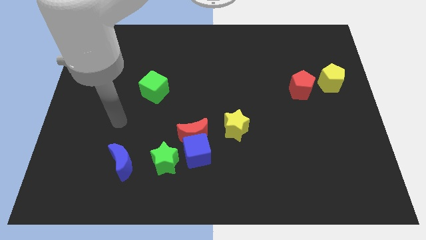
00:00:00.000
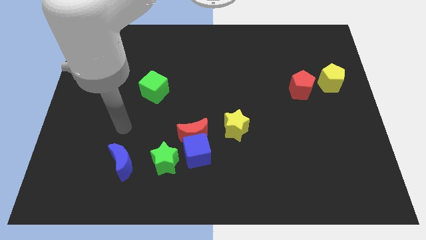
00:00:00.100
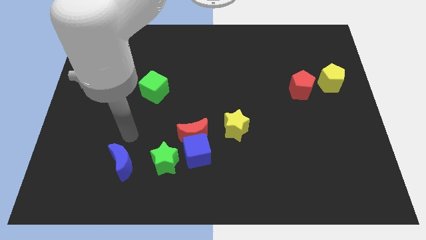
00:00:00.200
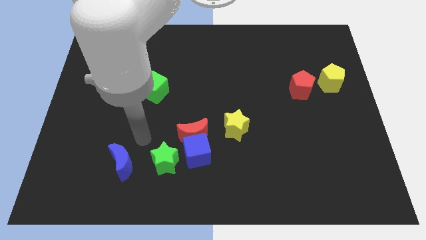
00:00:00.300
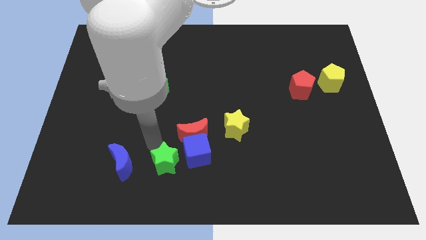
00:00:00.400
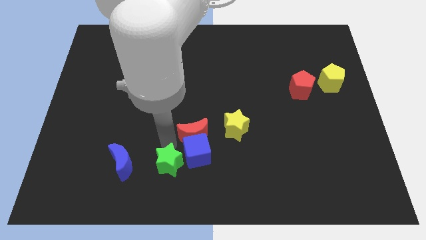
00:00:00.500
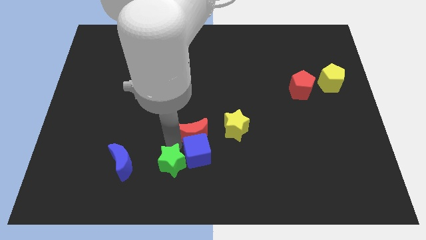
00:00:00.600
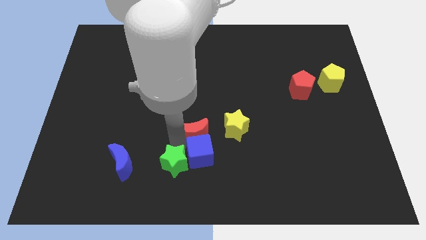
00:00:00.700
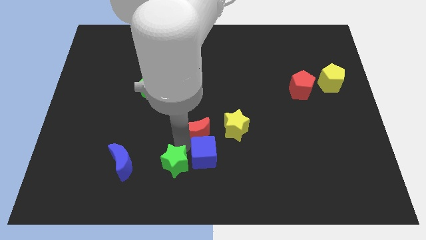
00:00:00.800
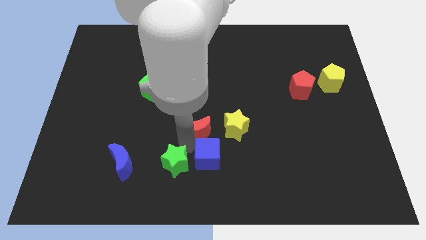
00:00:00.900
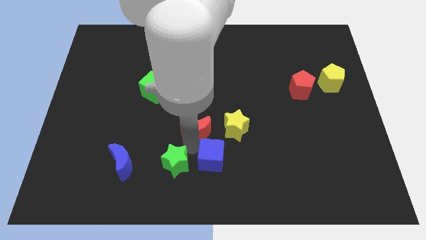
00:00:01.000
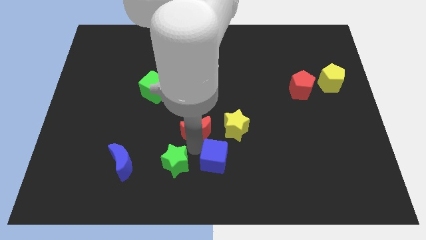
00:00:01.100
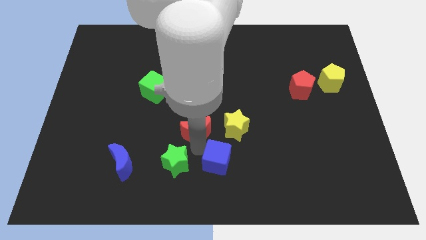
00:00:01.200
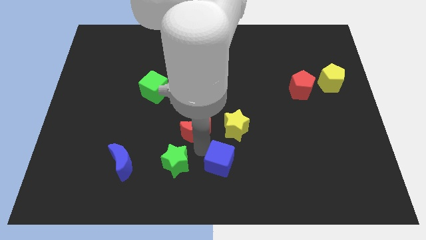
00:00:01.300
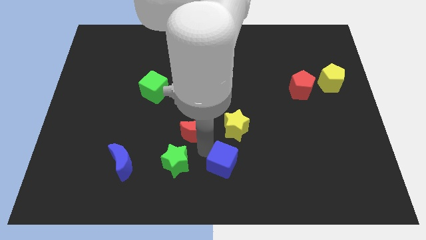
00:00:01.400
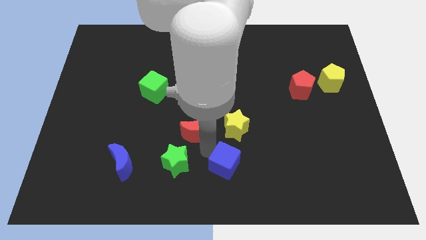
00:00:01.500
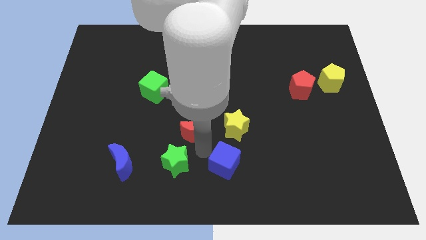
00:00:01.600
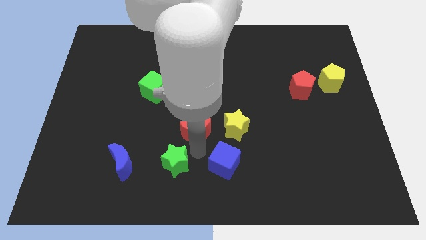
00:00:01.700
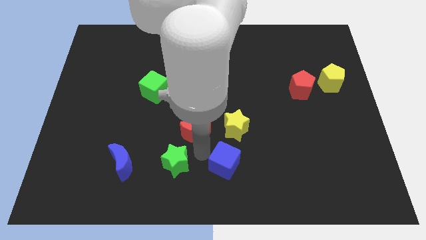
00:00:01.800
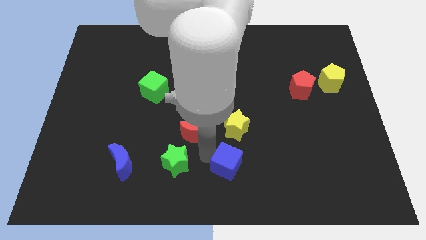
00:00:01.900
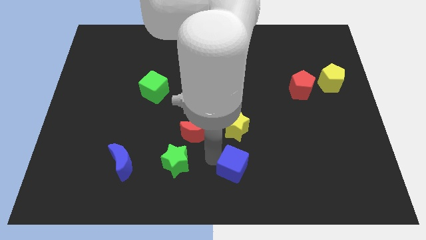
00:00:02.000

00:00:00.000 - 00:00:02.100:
pull the blue cube apart from the red moon and green star

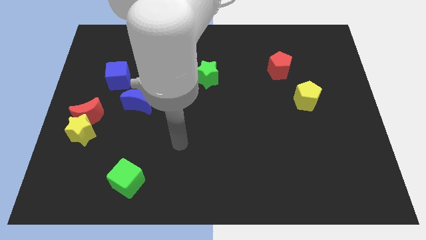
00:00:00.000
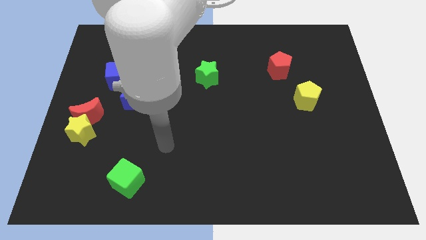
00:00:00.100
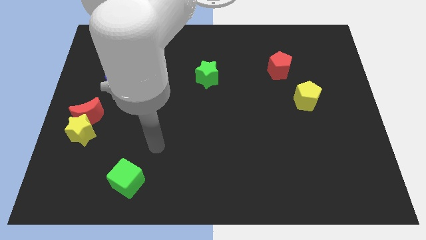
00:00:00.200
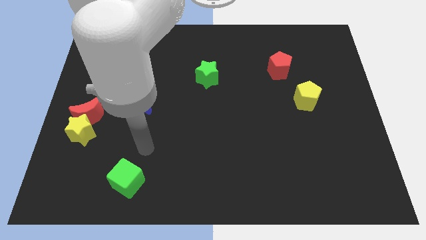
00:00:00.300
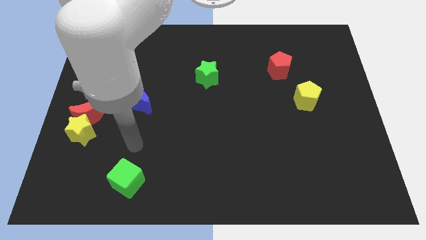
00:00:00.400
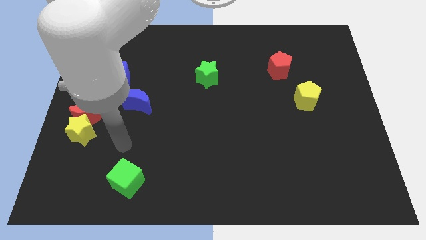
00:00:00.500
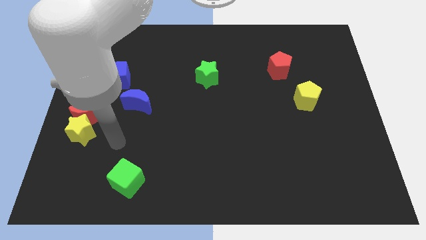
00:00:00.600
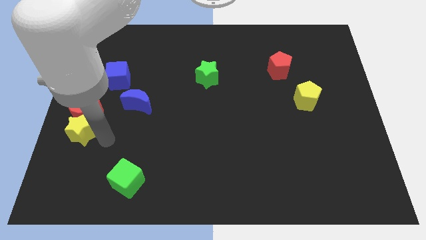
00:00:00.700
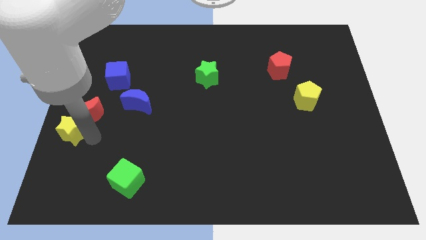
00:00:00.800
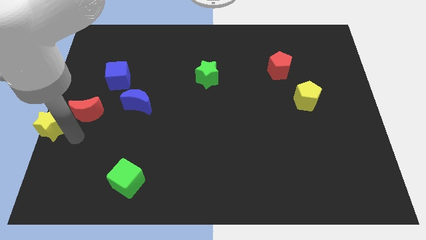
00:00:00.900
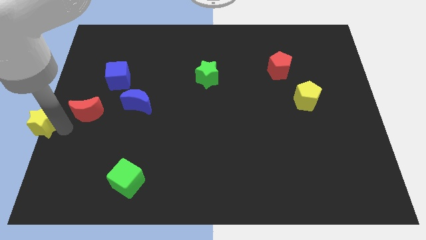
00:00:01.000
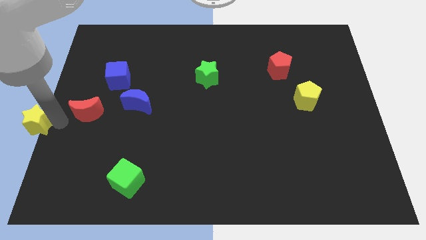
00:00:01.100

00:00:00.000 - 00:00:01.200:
move the red moon away from the yellow star

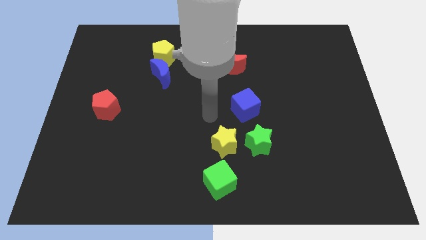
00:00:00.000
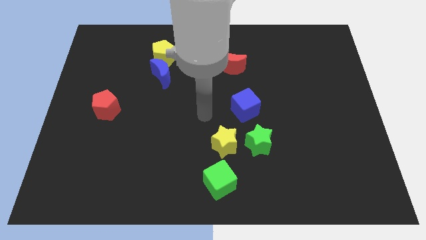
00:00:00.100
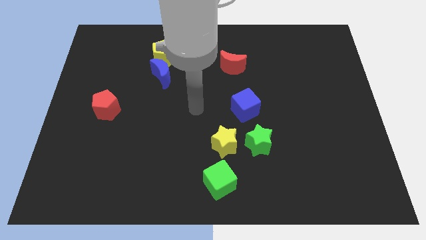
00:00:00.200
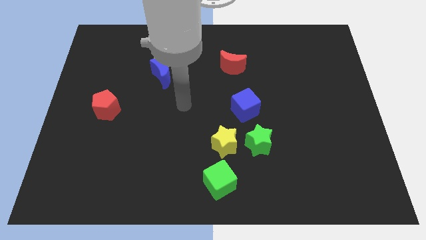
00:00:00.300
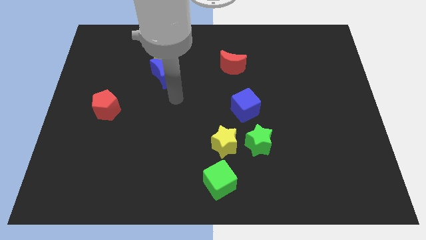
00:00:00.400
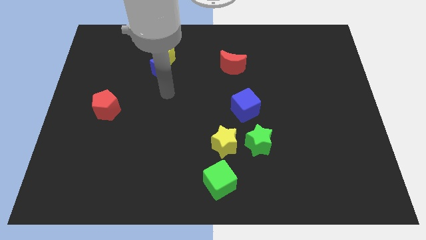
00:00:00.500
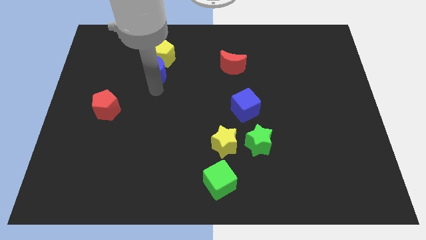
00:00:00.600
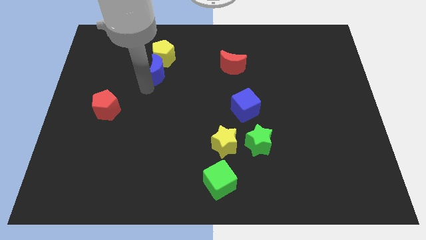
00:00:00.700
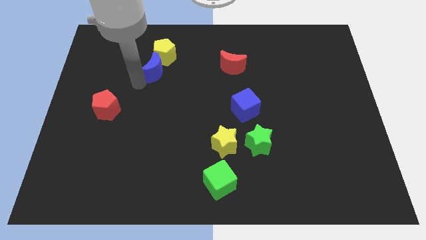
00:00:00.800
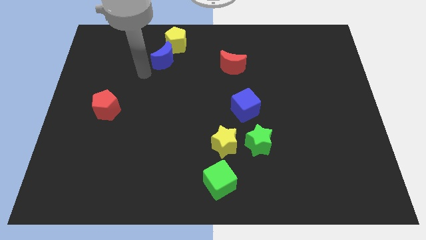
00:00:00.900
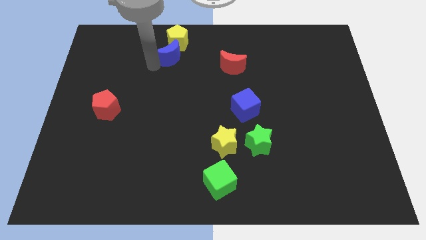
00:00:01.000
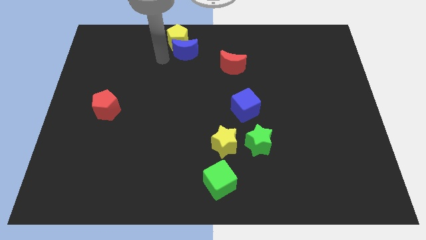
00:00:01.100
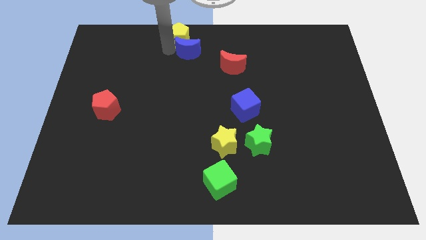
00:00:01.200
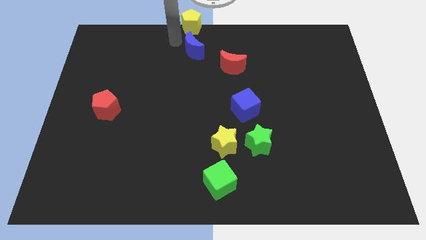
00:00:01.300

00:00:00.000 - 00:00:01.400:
pull the blue moon apart from the yellow pentagon

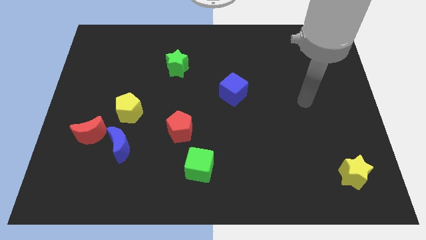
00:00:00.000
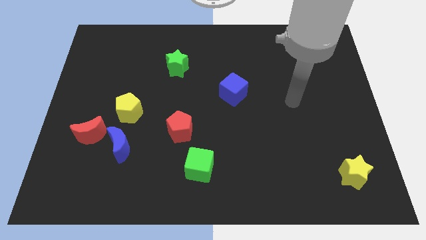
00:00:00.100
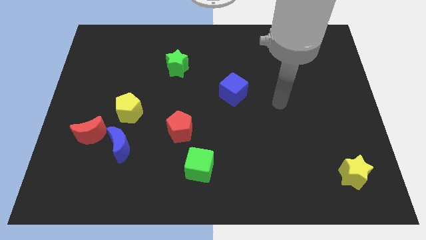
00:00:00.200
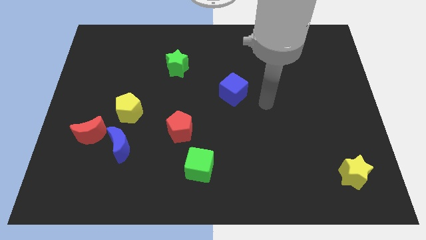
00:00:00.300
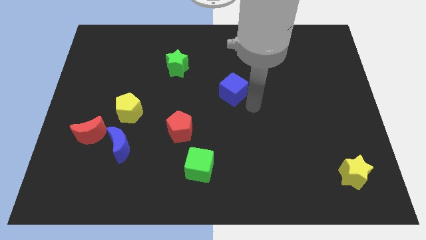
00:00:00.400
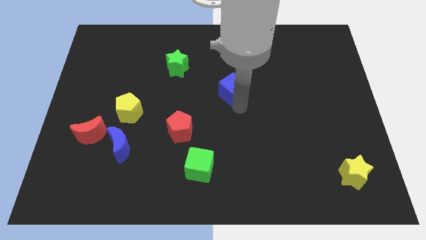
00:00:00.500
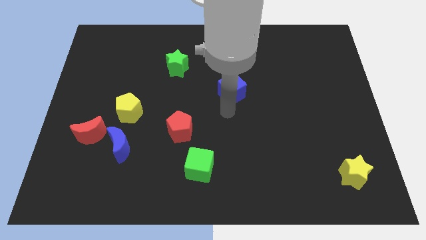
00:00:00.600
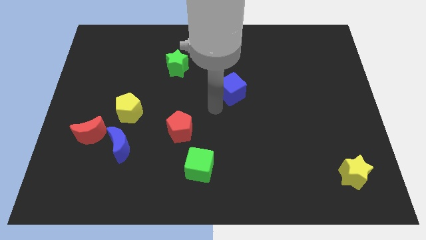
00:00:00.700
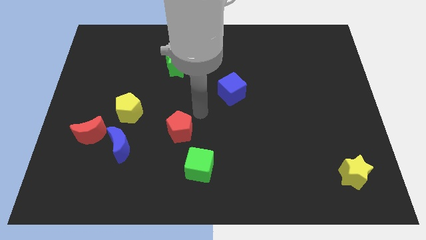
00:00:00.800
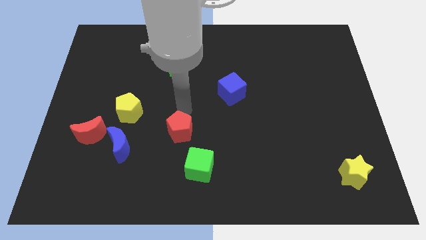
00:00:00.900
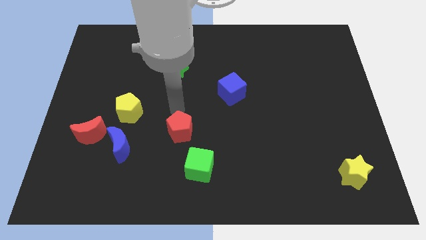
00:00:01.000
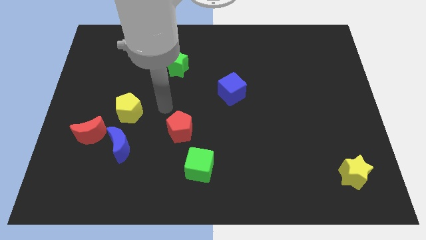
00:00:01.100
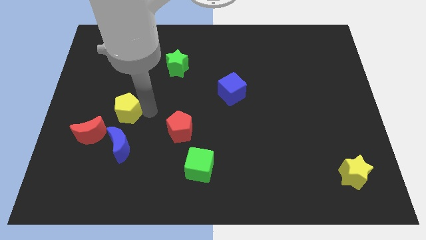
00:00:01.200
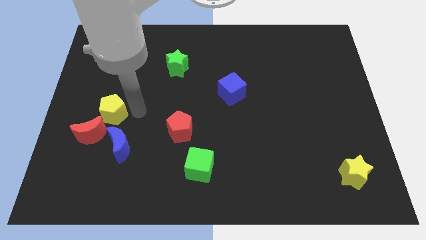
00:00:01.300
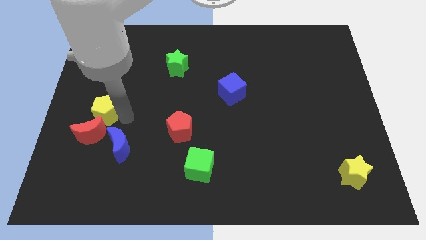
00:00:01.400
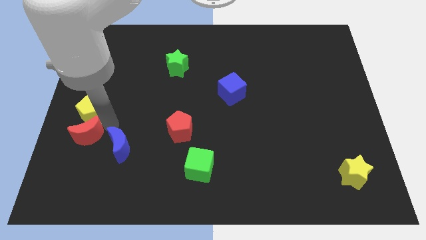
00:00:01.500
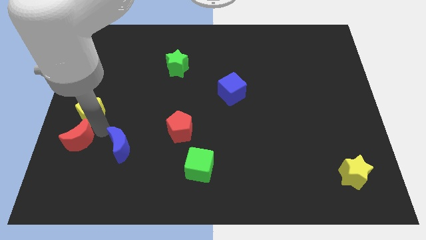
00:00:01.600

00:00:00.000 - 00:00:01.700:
pull the blue moon apart from the red moon and yellow pentagon

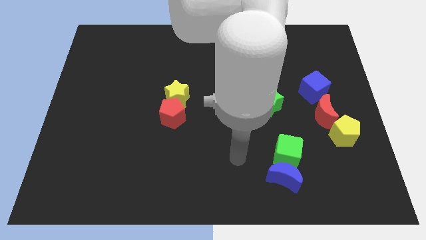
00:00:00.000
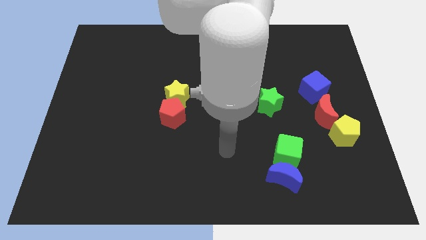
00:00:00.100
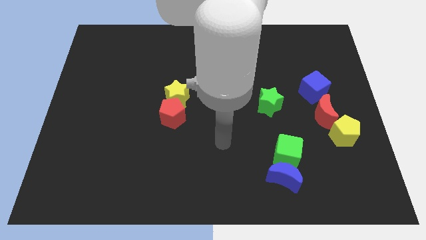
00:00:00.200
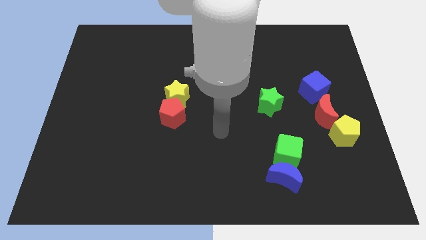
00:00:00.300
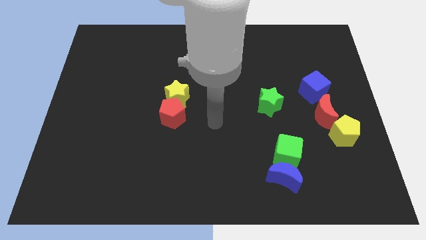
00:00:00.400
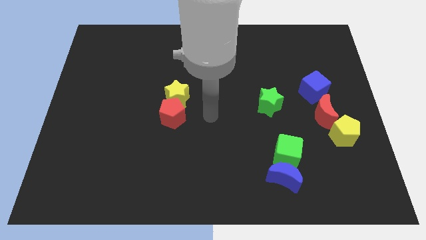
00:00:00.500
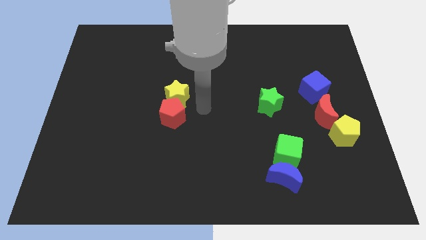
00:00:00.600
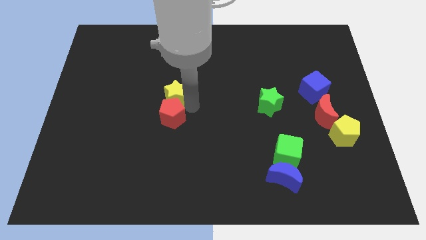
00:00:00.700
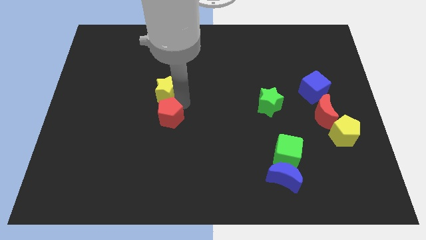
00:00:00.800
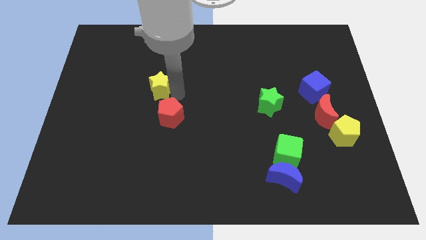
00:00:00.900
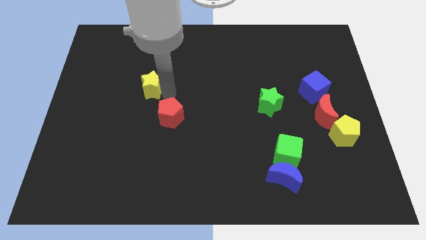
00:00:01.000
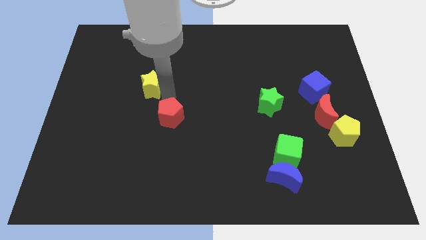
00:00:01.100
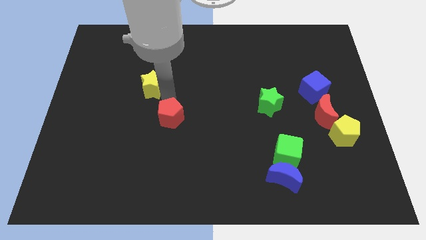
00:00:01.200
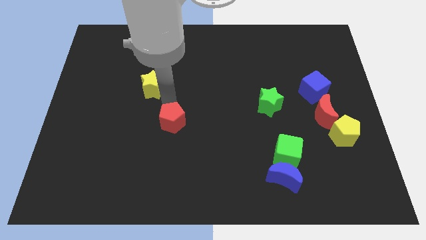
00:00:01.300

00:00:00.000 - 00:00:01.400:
separate the red pentagon from the yellow star

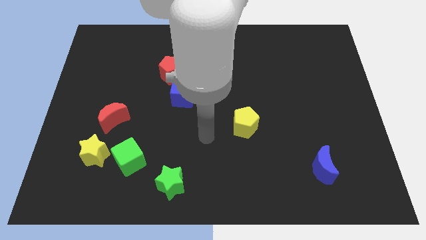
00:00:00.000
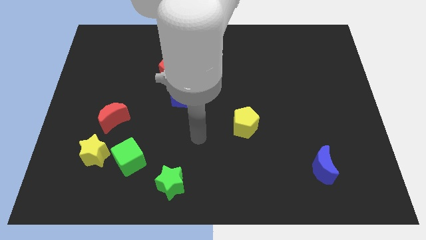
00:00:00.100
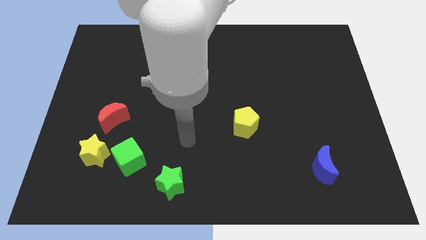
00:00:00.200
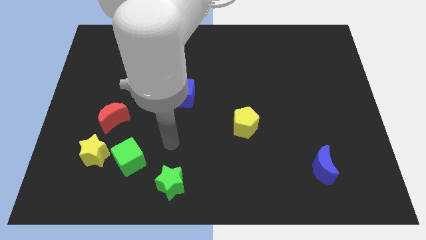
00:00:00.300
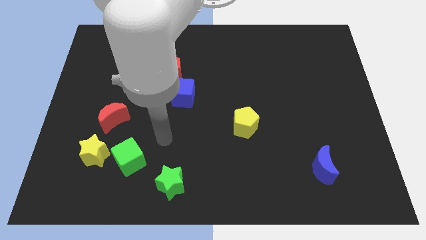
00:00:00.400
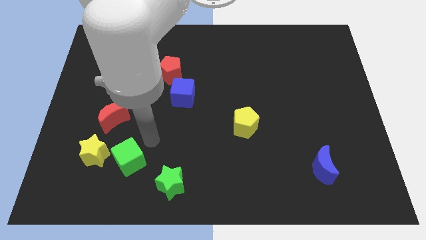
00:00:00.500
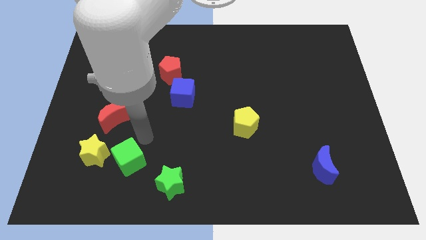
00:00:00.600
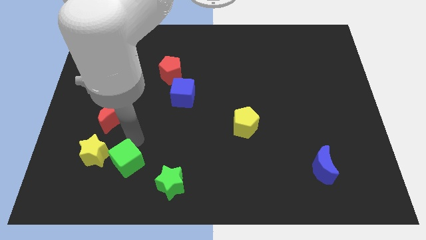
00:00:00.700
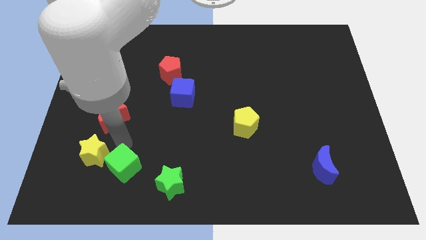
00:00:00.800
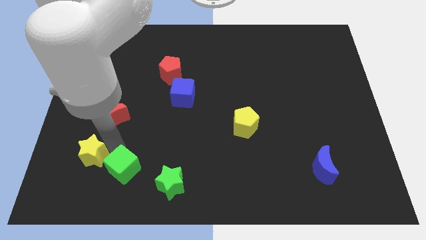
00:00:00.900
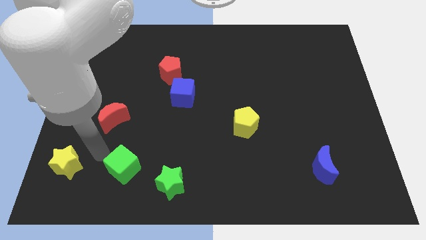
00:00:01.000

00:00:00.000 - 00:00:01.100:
separate the green cube from the yellow star

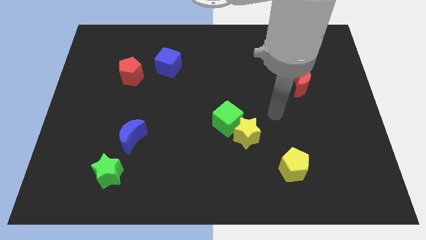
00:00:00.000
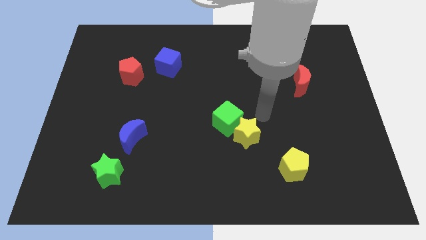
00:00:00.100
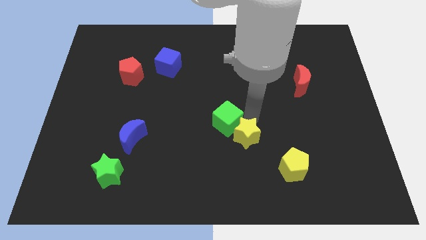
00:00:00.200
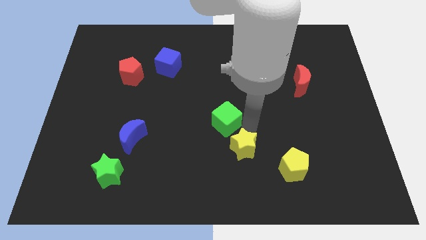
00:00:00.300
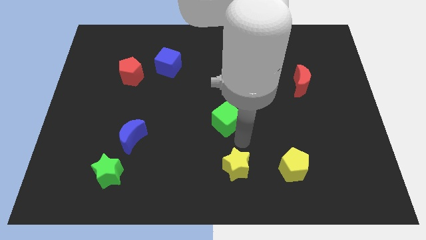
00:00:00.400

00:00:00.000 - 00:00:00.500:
pull the green cube apart from the yellow star
